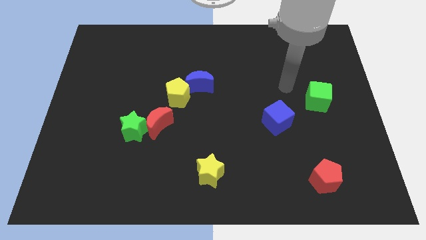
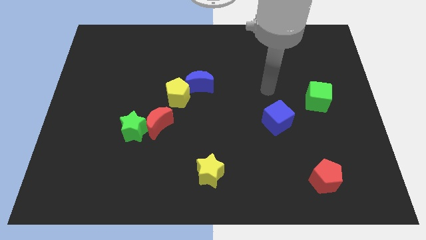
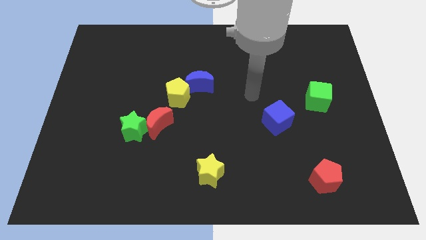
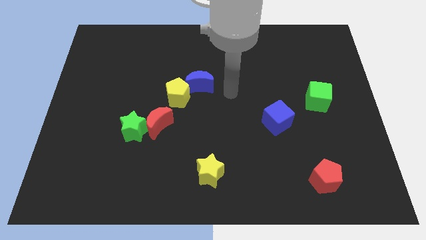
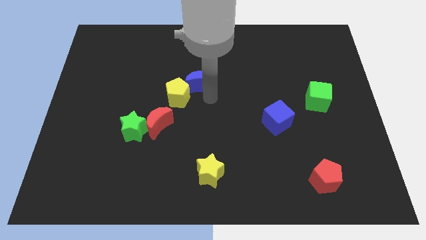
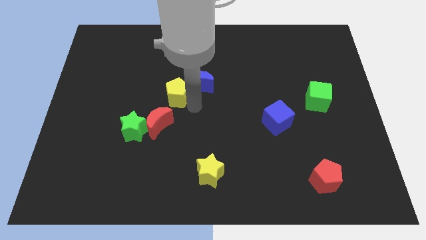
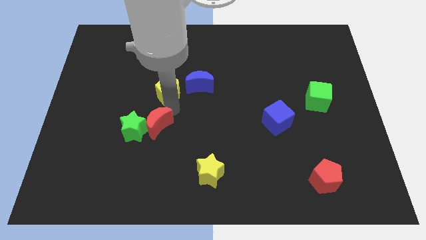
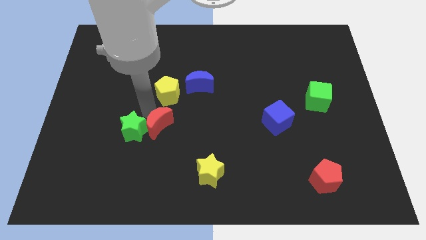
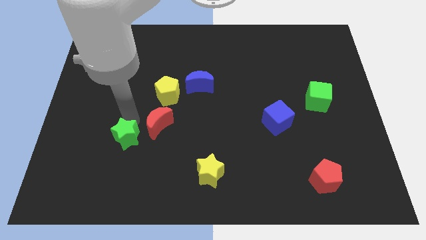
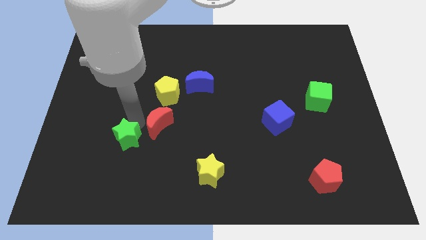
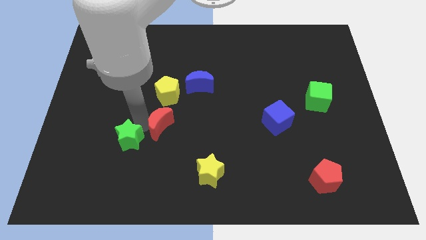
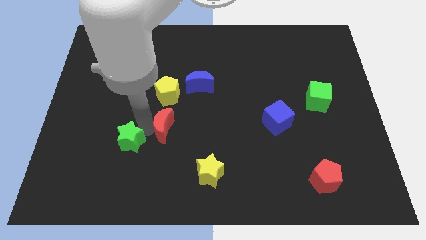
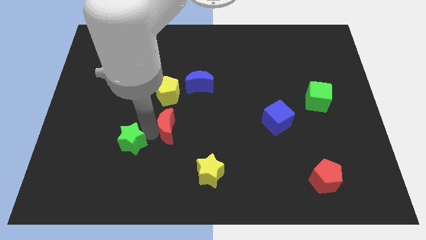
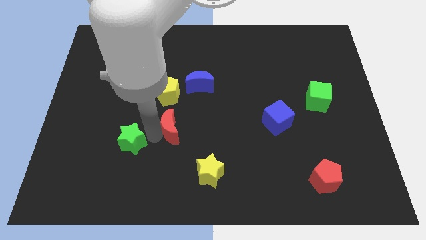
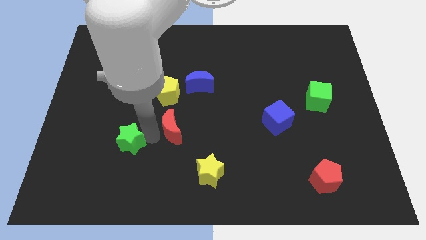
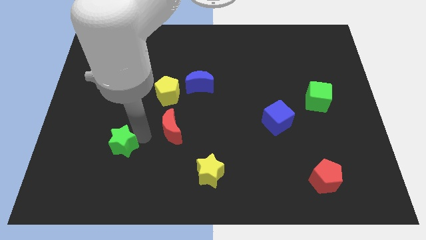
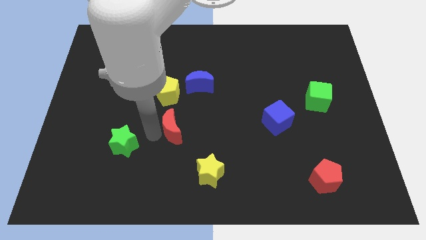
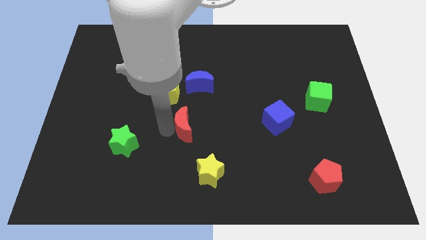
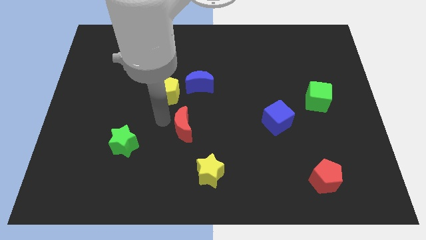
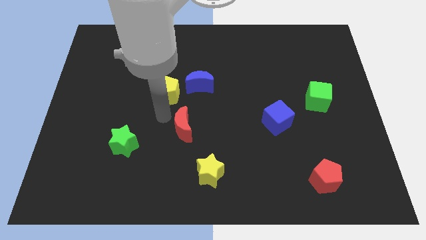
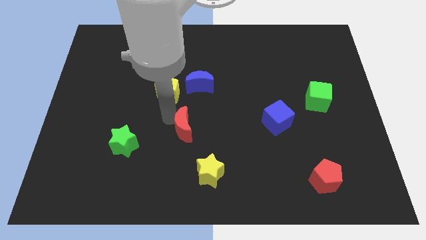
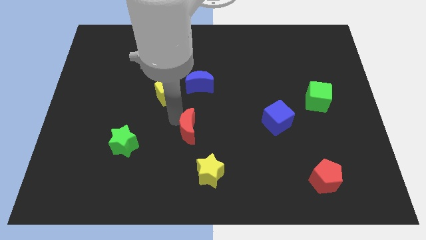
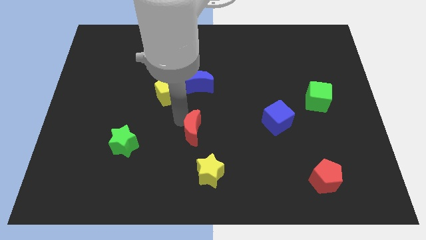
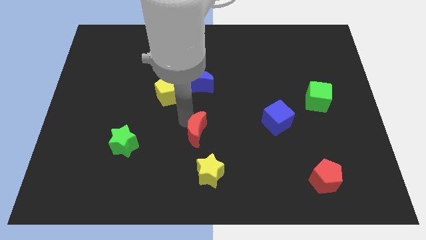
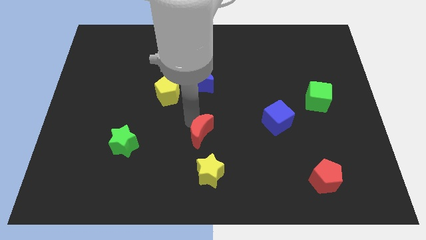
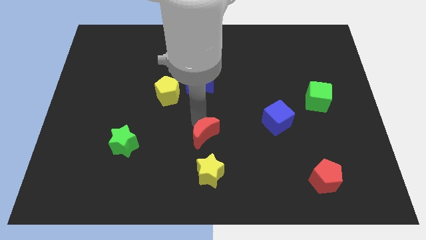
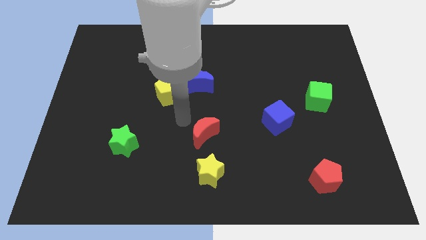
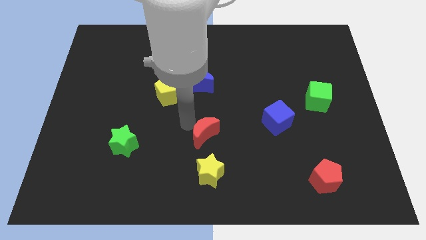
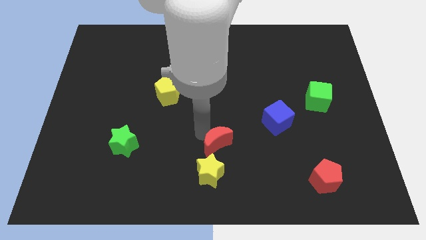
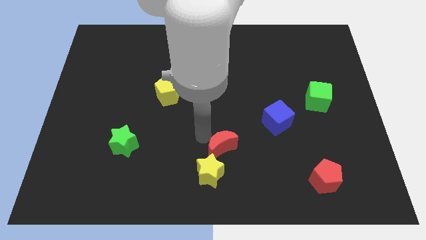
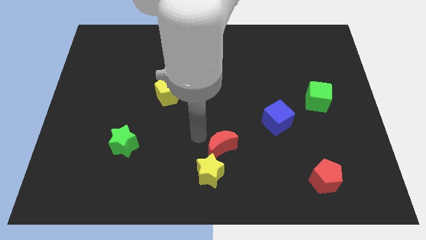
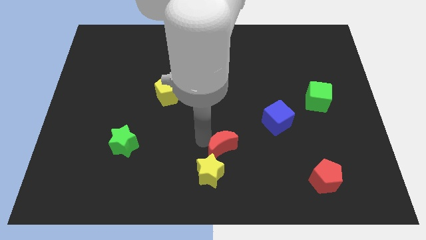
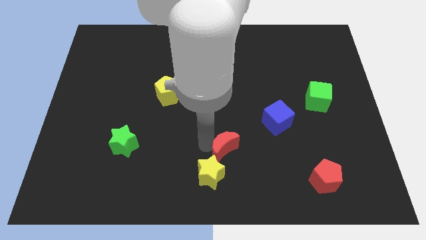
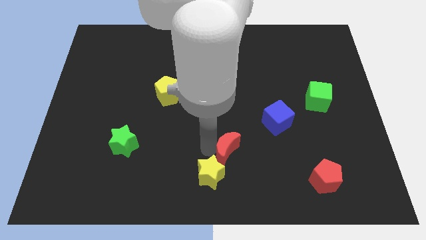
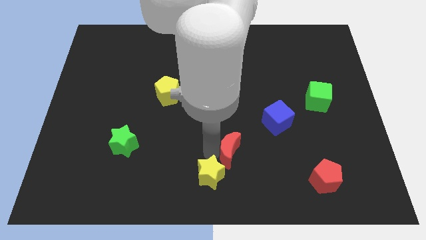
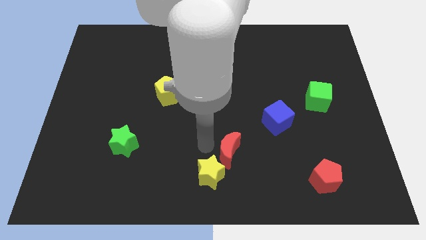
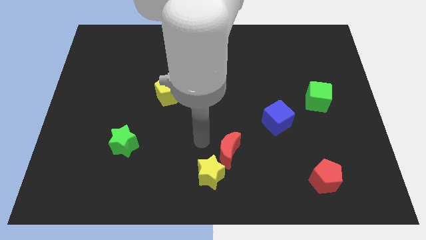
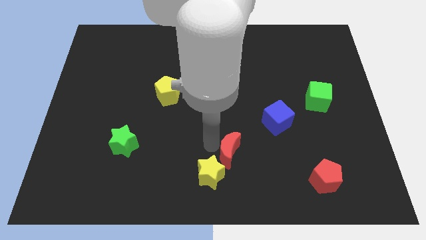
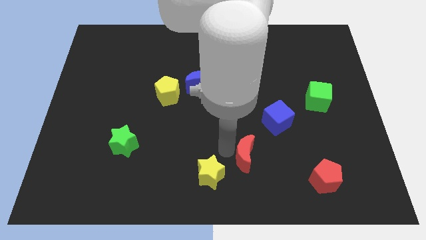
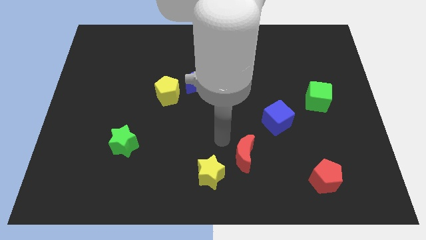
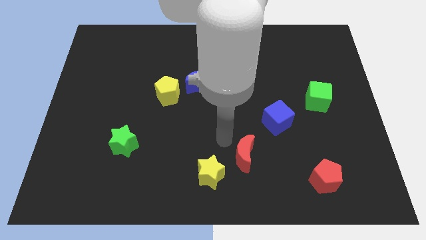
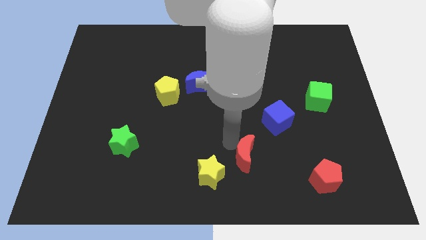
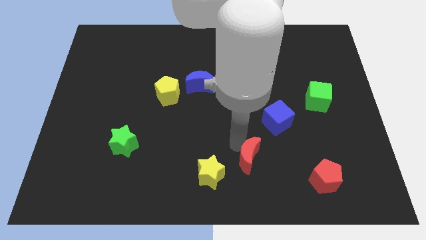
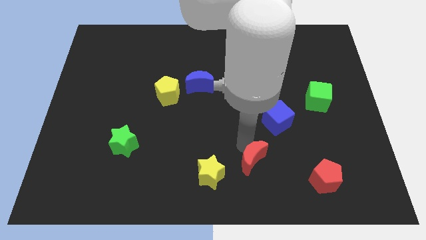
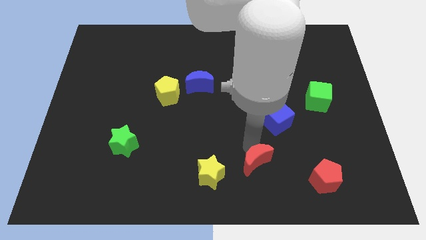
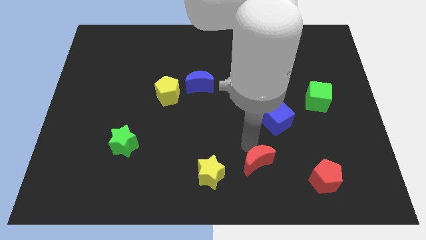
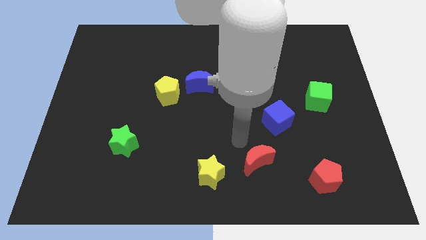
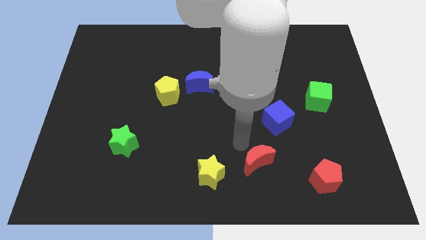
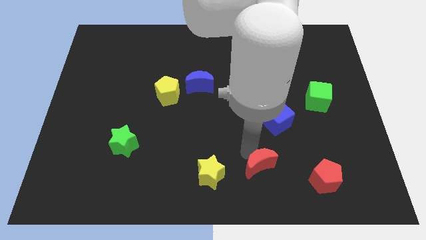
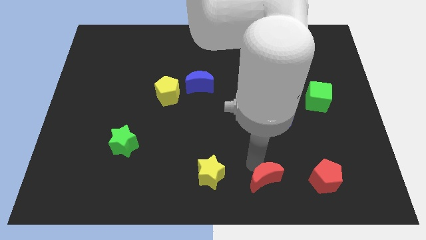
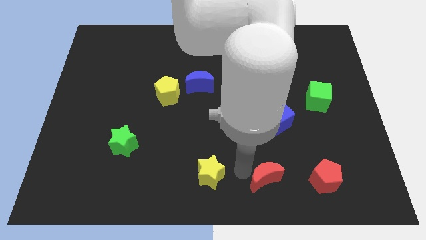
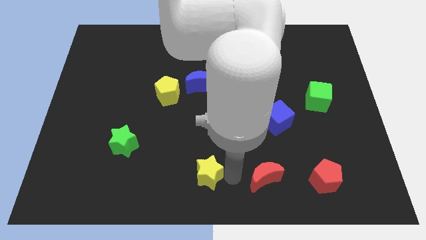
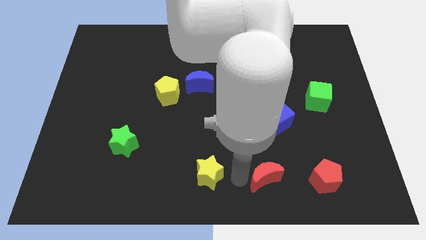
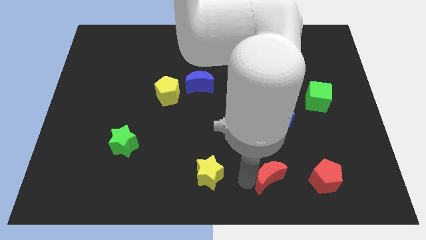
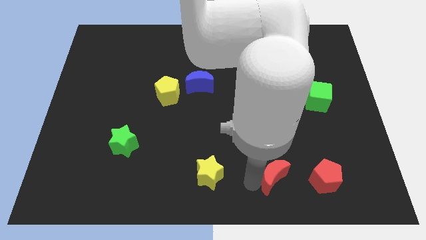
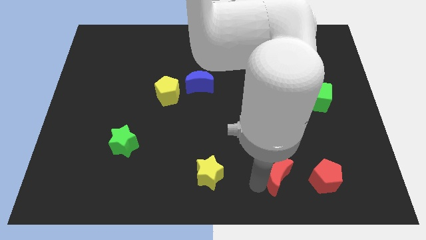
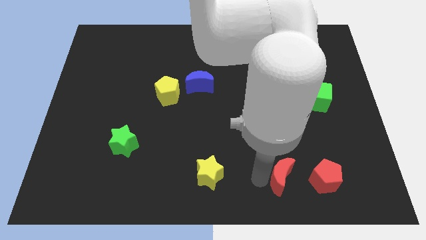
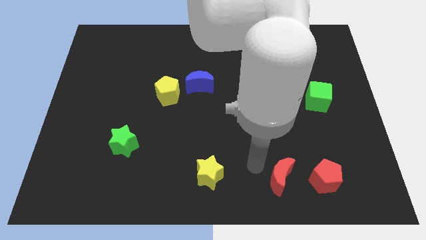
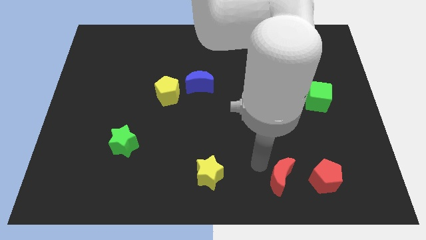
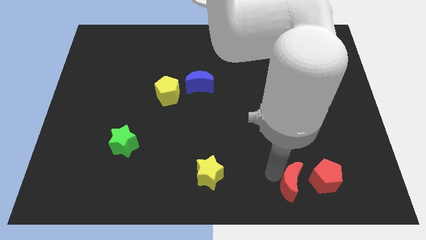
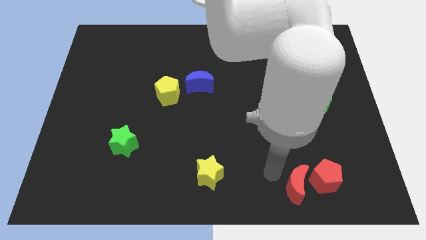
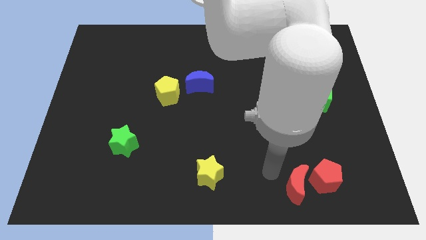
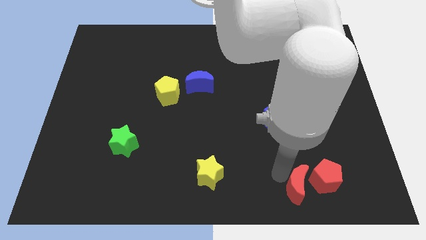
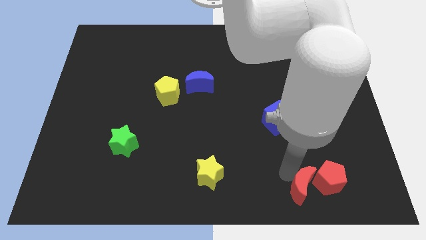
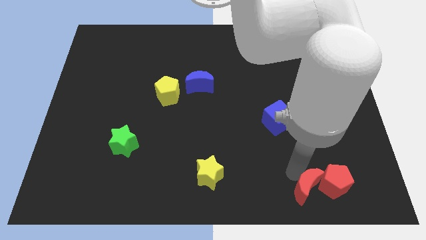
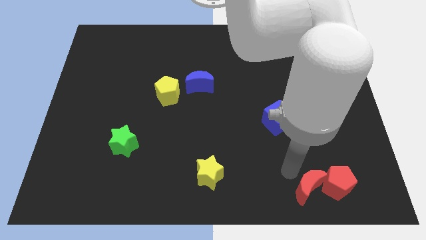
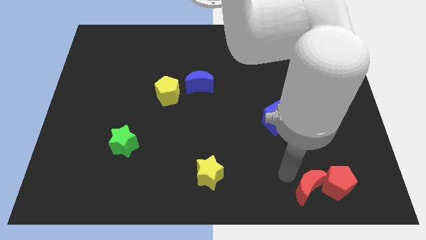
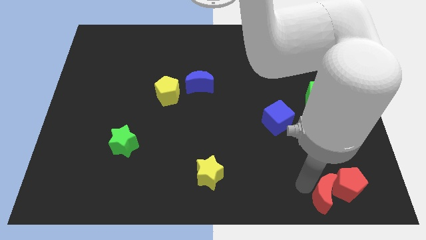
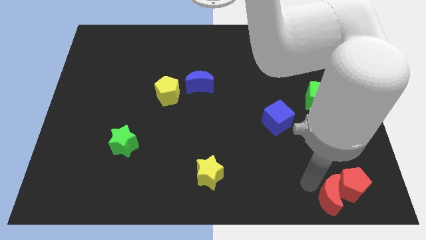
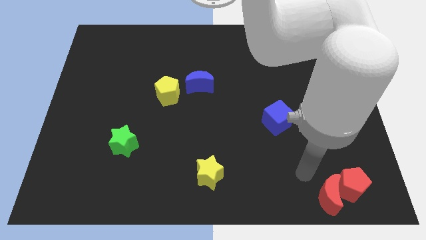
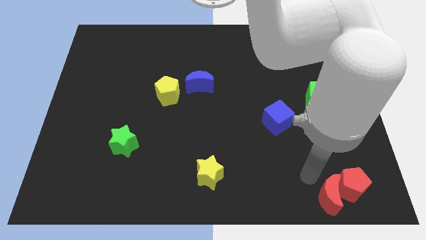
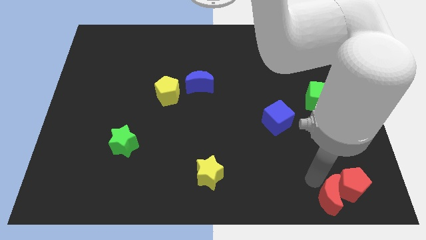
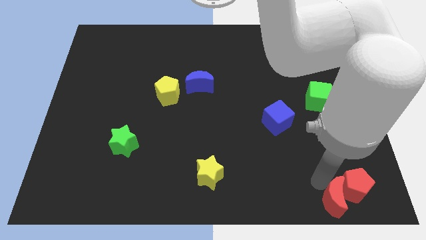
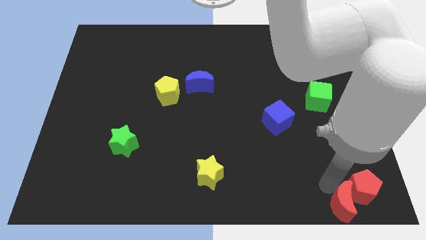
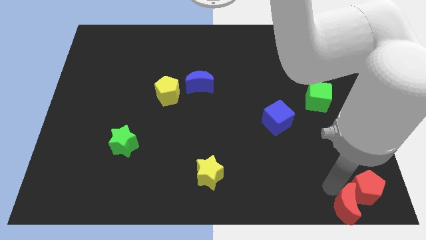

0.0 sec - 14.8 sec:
slide the red moon to the bottom right corner
